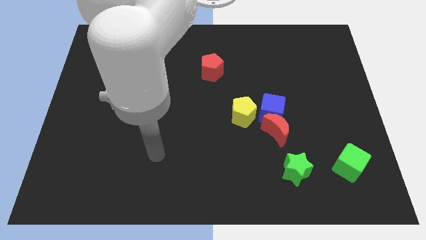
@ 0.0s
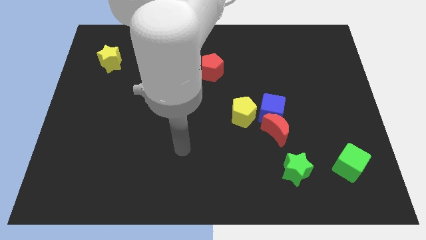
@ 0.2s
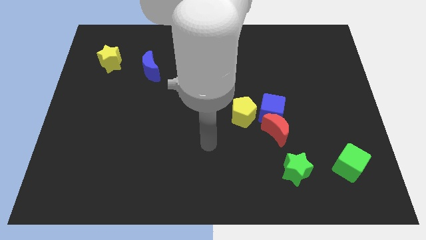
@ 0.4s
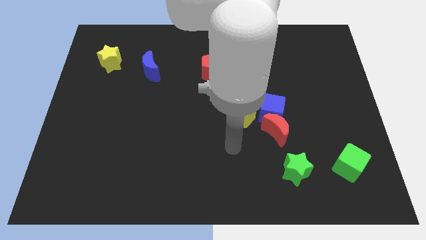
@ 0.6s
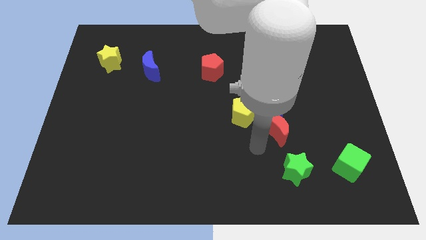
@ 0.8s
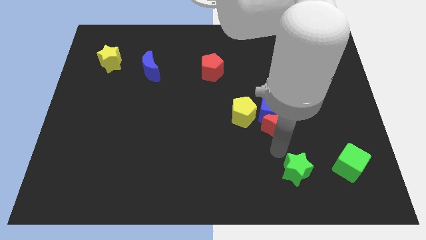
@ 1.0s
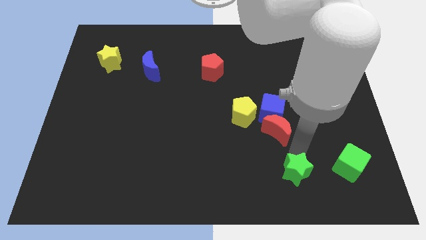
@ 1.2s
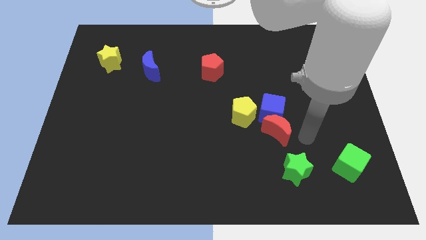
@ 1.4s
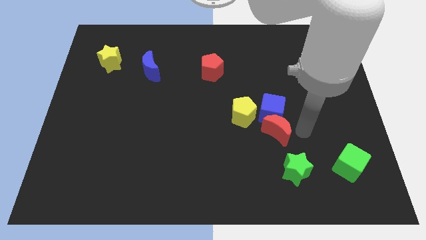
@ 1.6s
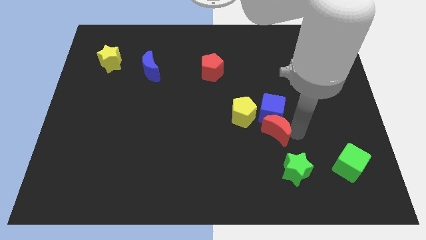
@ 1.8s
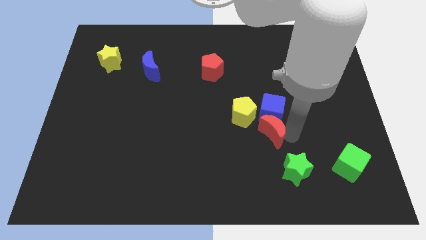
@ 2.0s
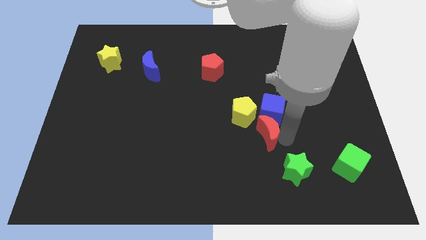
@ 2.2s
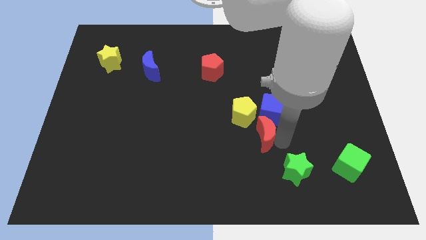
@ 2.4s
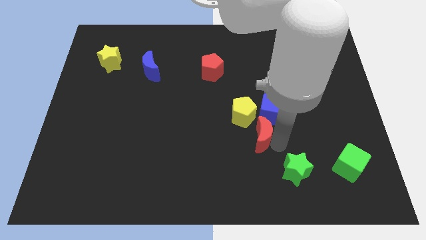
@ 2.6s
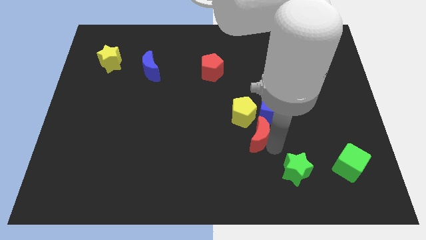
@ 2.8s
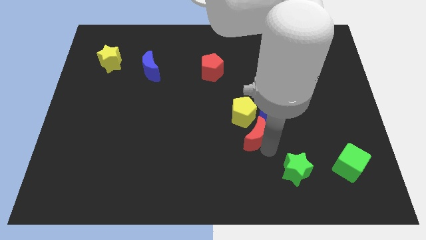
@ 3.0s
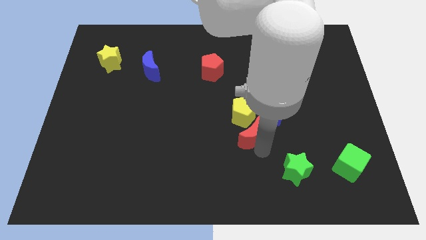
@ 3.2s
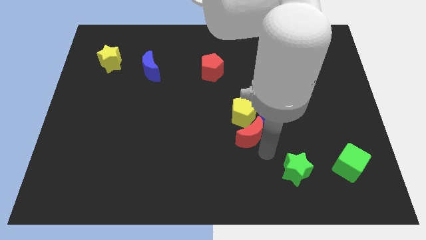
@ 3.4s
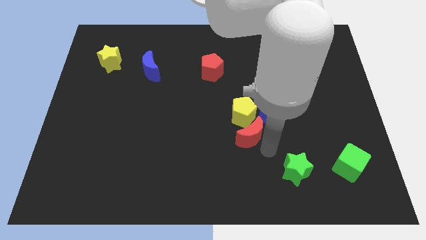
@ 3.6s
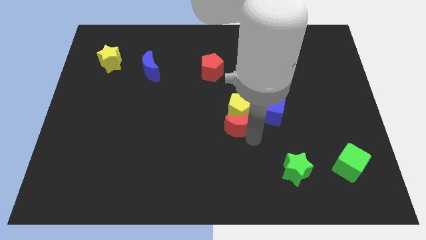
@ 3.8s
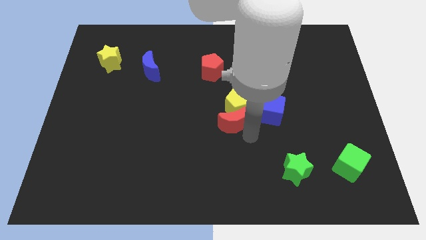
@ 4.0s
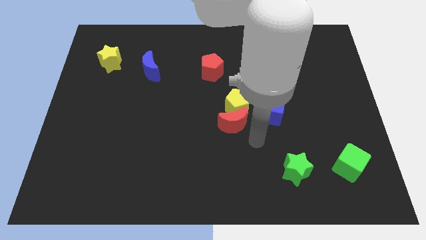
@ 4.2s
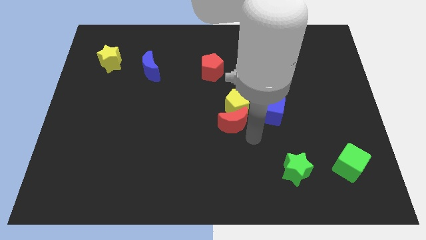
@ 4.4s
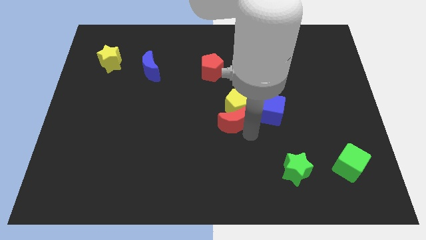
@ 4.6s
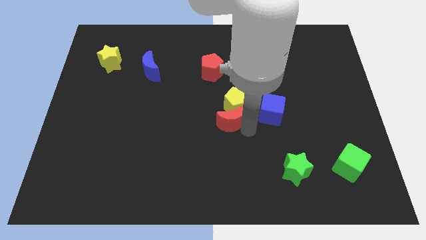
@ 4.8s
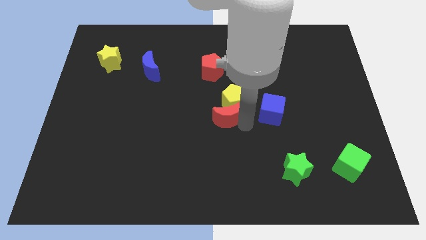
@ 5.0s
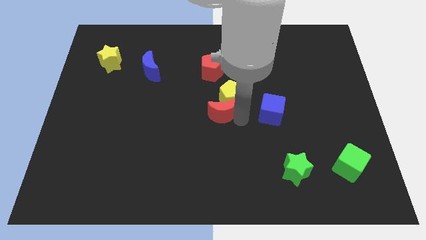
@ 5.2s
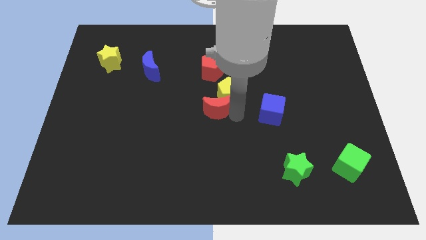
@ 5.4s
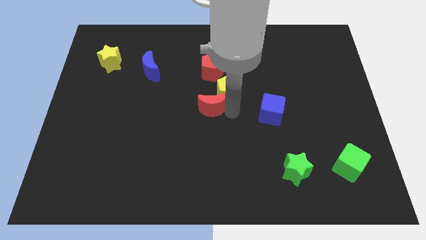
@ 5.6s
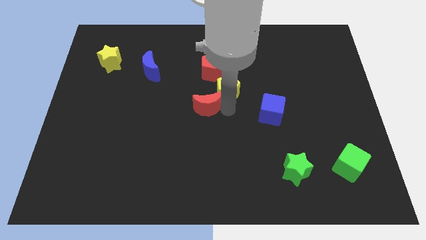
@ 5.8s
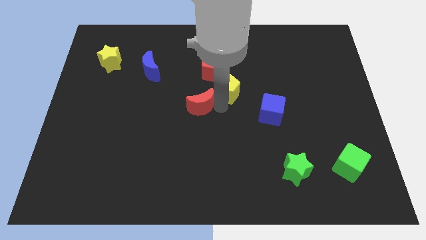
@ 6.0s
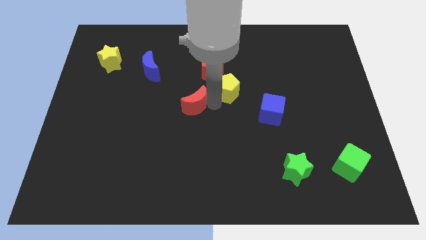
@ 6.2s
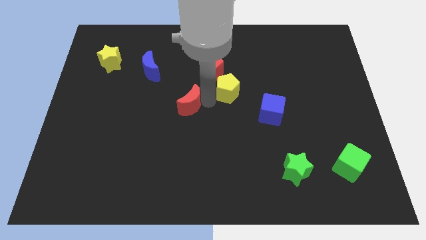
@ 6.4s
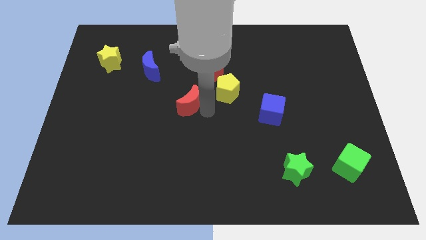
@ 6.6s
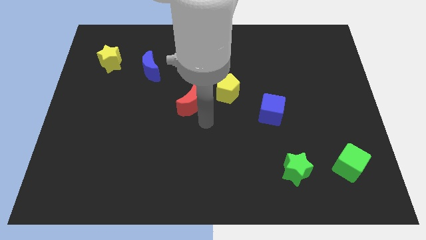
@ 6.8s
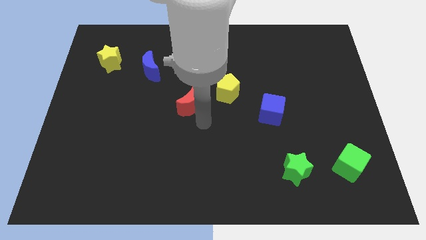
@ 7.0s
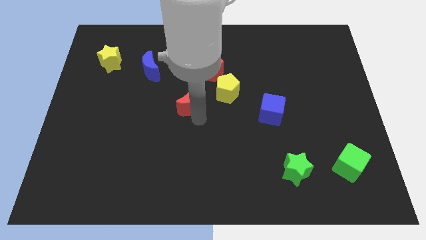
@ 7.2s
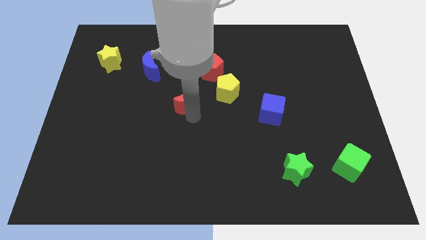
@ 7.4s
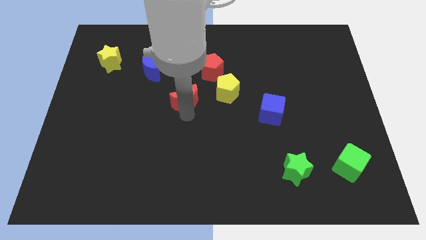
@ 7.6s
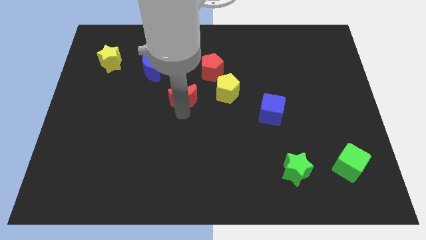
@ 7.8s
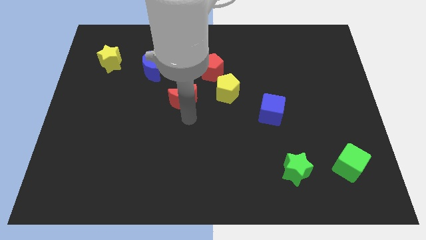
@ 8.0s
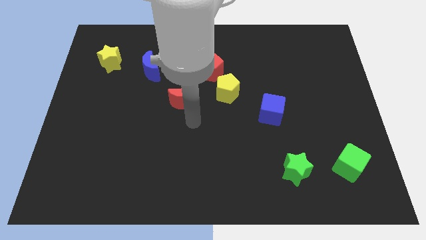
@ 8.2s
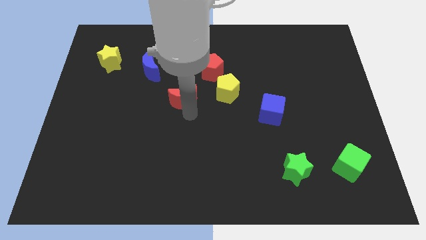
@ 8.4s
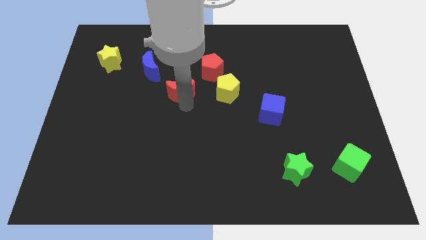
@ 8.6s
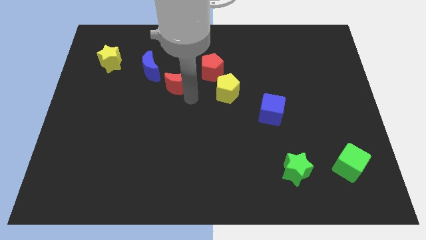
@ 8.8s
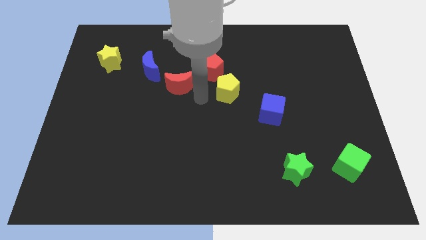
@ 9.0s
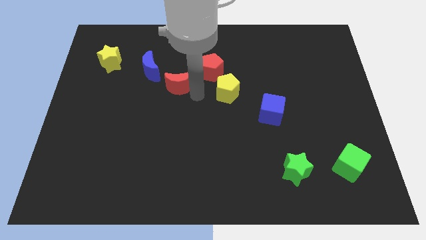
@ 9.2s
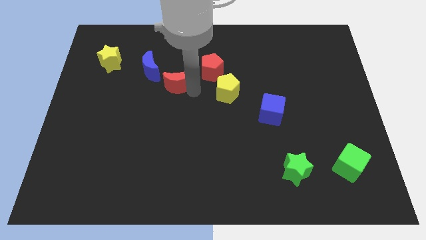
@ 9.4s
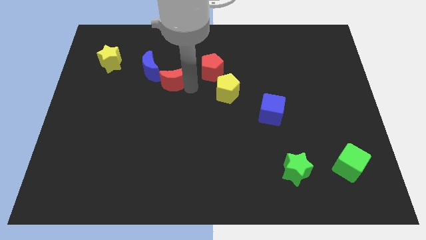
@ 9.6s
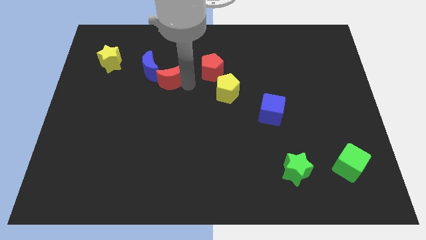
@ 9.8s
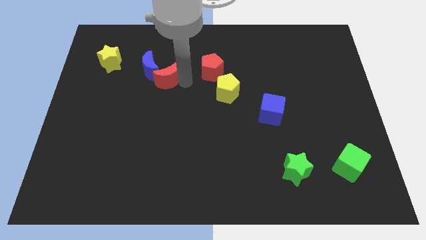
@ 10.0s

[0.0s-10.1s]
put the red moon next to the blue moon

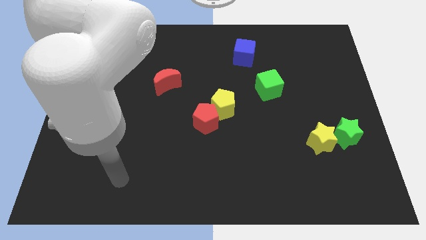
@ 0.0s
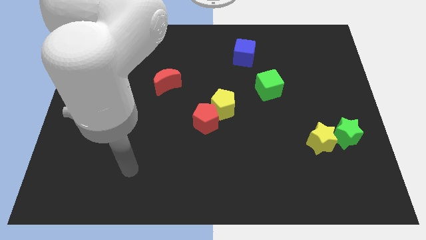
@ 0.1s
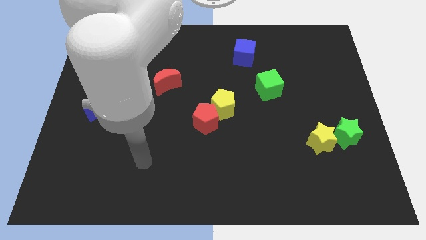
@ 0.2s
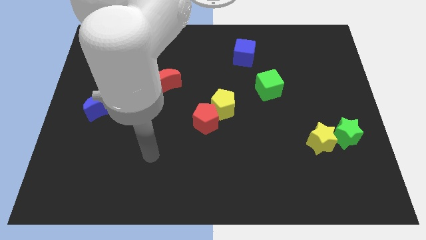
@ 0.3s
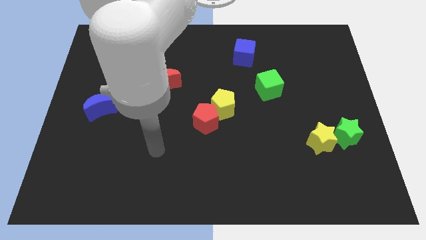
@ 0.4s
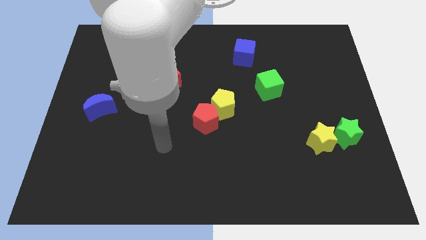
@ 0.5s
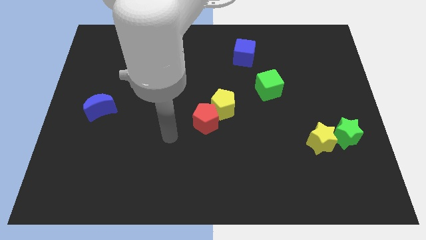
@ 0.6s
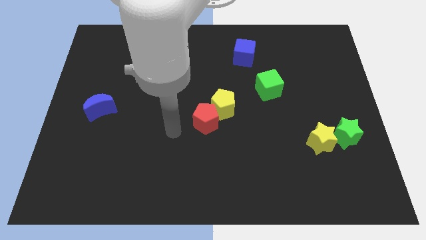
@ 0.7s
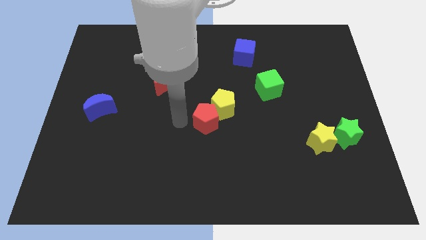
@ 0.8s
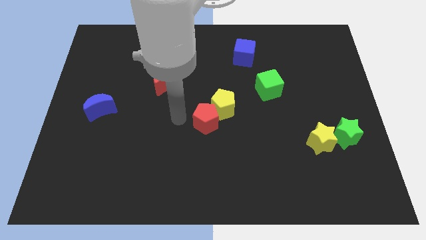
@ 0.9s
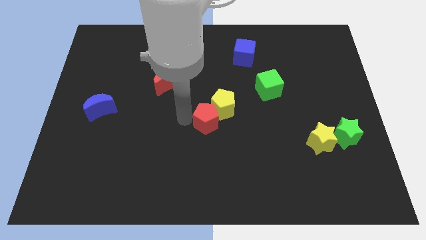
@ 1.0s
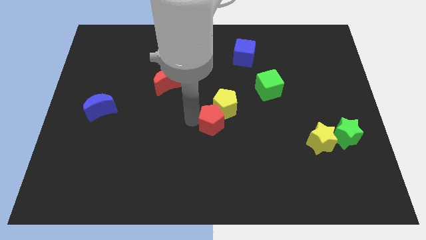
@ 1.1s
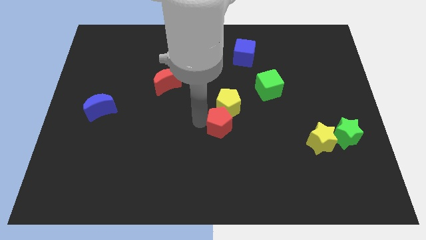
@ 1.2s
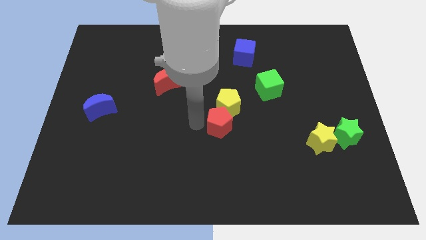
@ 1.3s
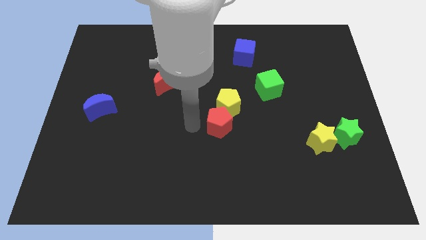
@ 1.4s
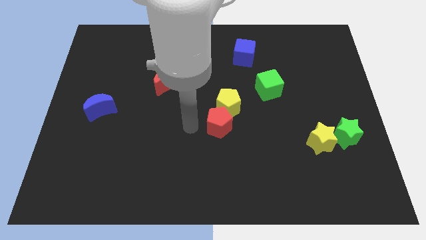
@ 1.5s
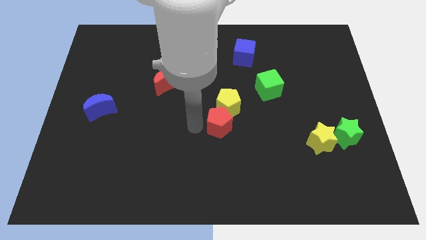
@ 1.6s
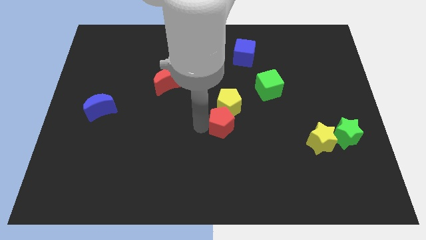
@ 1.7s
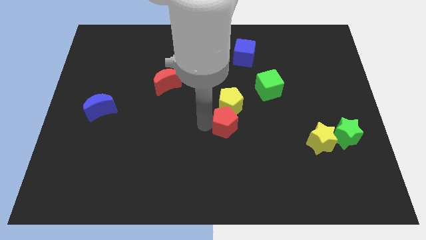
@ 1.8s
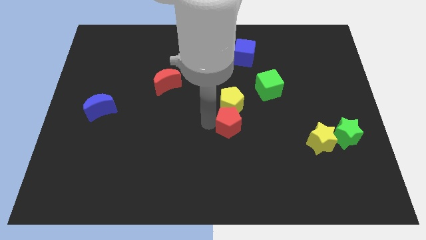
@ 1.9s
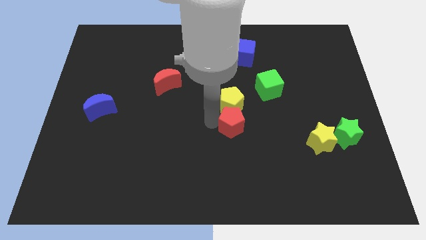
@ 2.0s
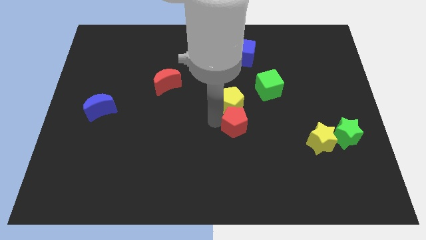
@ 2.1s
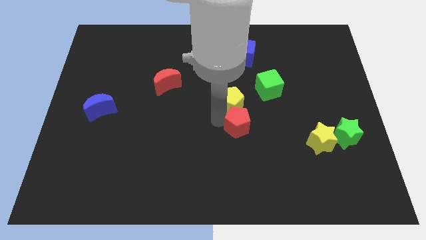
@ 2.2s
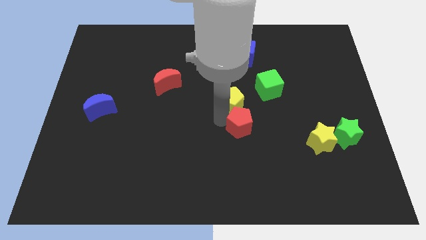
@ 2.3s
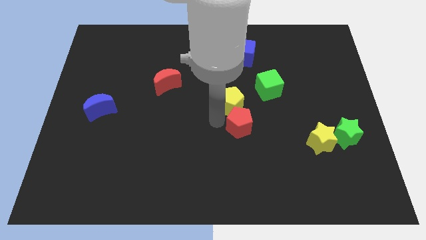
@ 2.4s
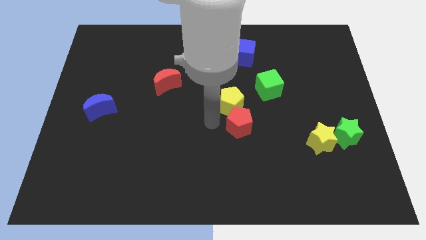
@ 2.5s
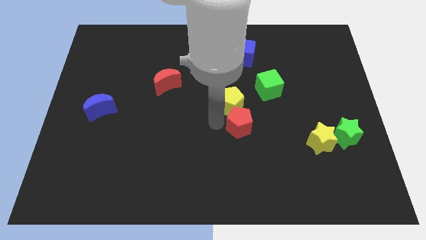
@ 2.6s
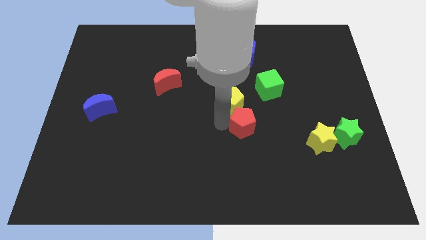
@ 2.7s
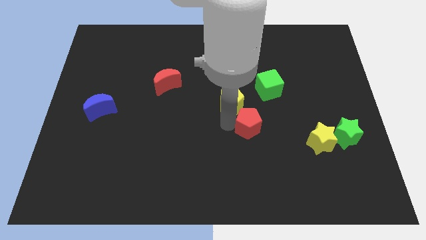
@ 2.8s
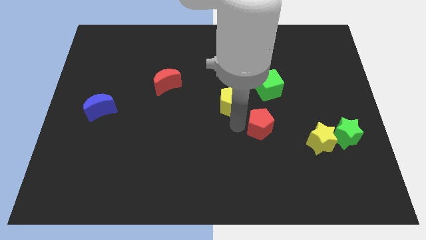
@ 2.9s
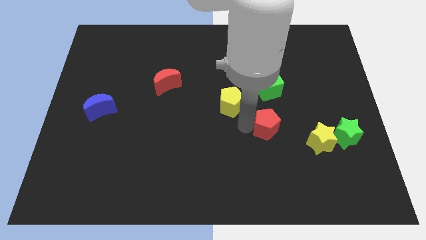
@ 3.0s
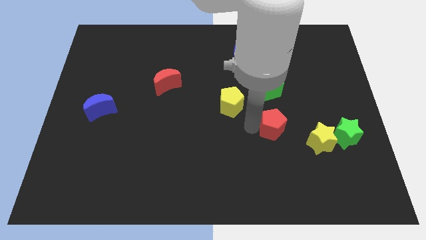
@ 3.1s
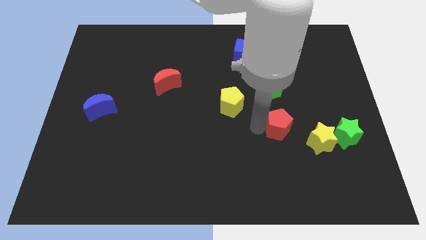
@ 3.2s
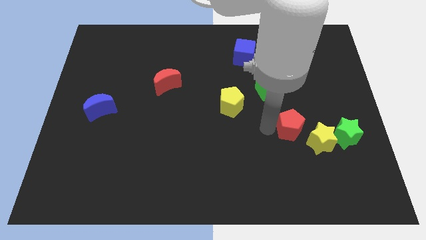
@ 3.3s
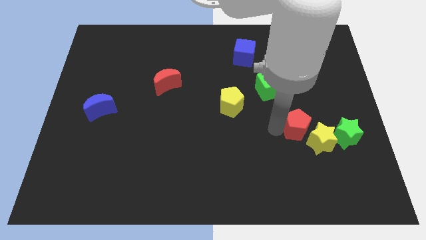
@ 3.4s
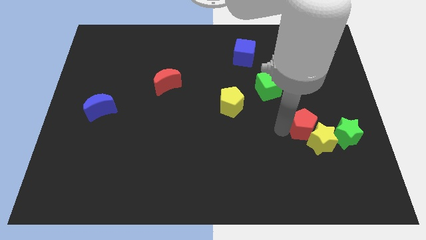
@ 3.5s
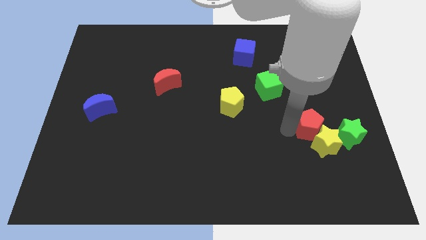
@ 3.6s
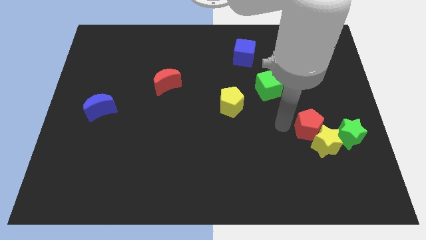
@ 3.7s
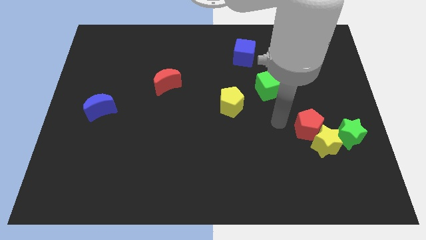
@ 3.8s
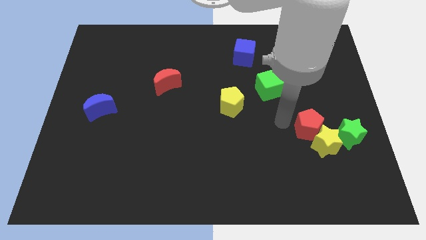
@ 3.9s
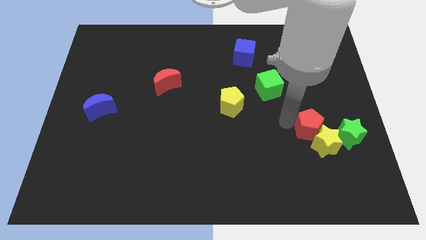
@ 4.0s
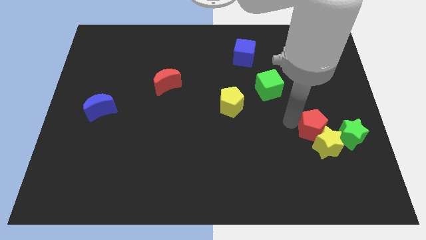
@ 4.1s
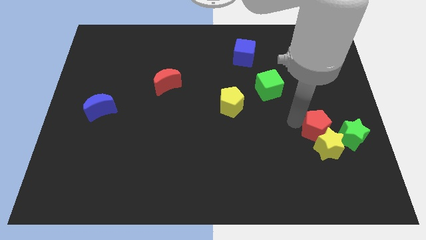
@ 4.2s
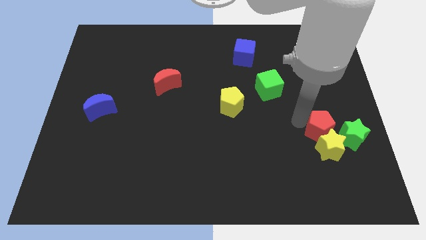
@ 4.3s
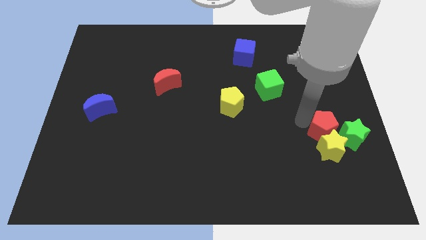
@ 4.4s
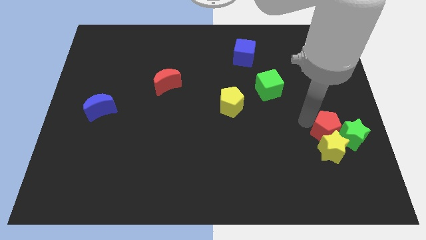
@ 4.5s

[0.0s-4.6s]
move the red pentagon towards the green star
